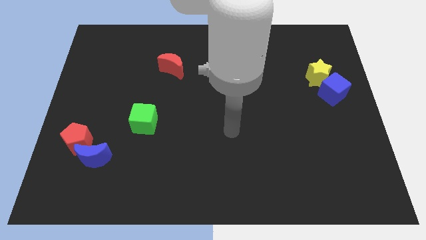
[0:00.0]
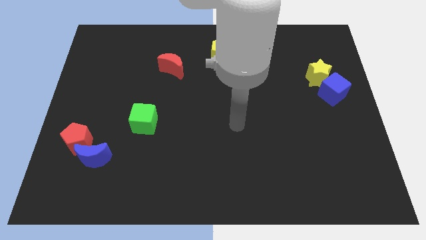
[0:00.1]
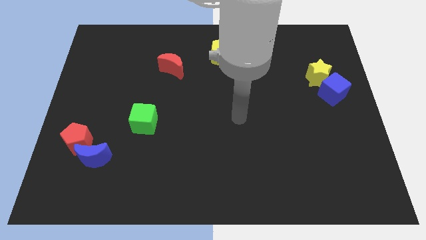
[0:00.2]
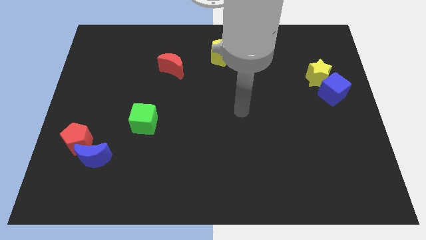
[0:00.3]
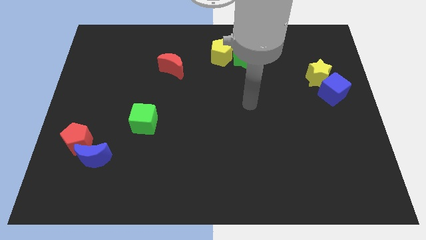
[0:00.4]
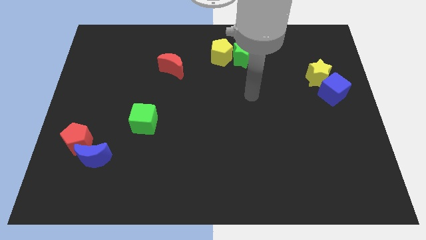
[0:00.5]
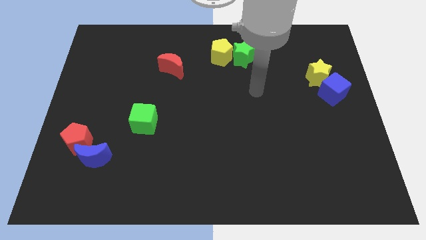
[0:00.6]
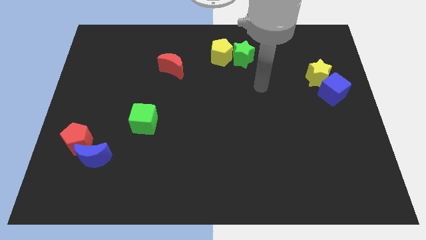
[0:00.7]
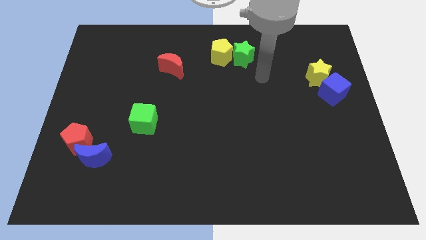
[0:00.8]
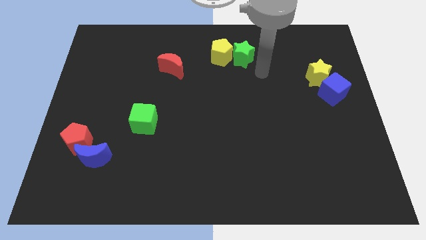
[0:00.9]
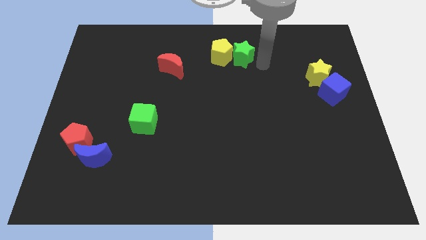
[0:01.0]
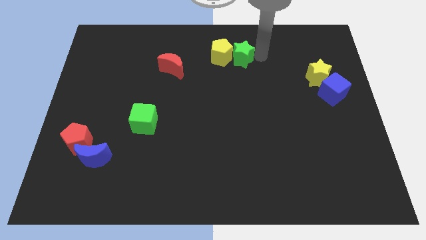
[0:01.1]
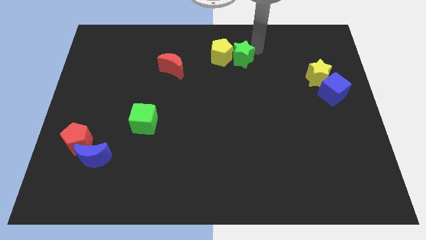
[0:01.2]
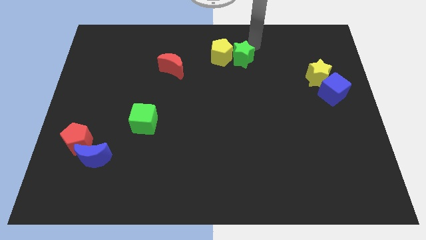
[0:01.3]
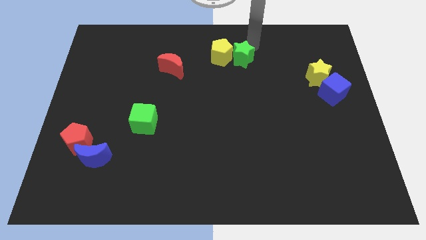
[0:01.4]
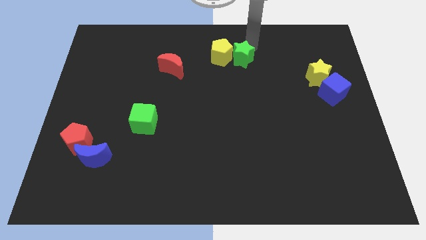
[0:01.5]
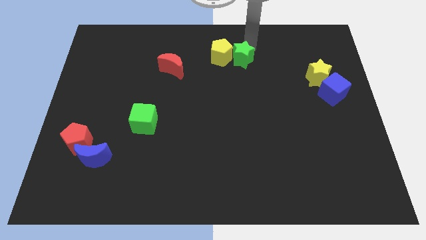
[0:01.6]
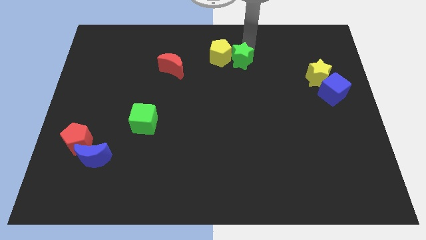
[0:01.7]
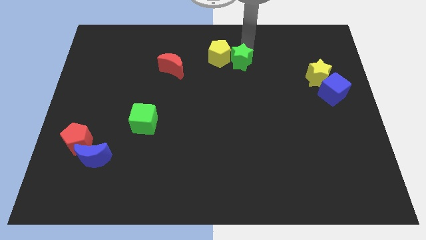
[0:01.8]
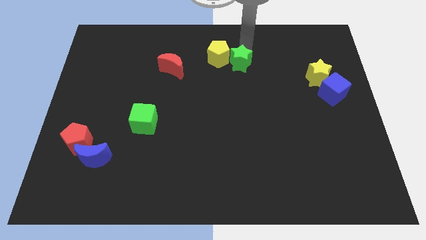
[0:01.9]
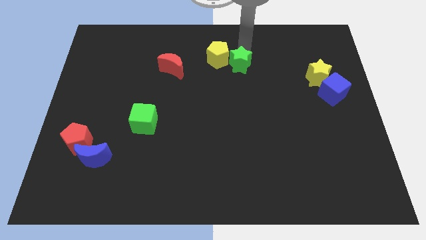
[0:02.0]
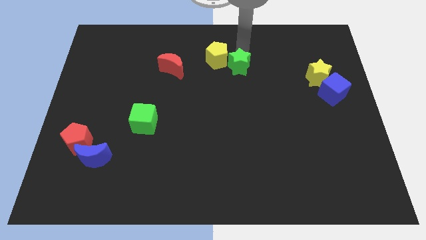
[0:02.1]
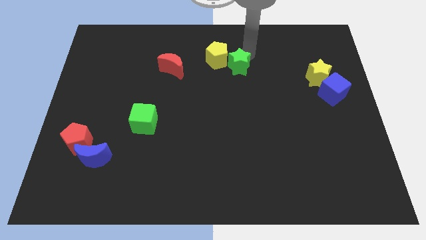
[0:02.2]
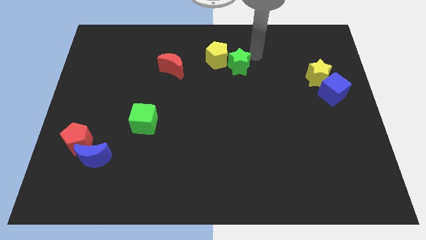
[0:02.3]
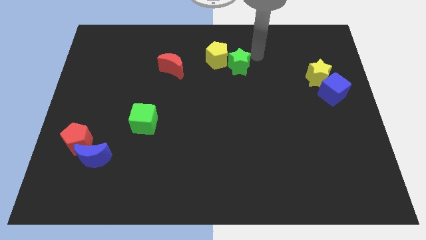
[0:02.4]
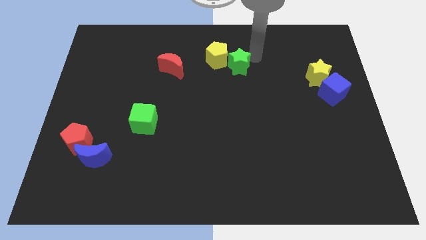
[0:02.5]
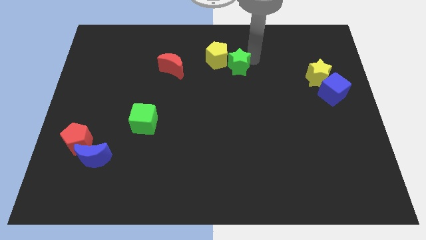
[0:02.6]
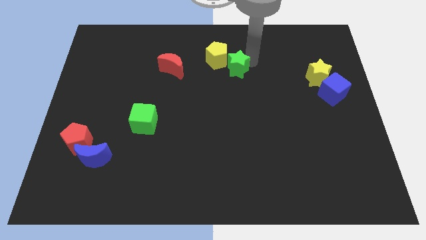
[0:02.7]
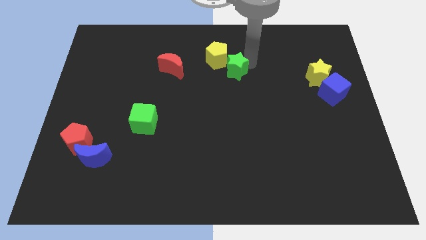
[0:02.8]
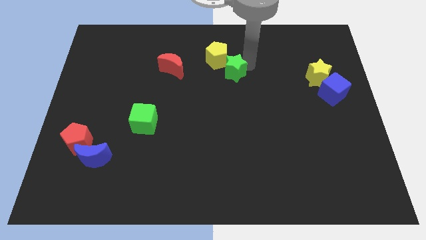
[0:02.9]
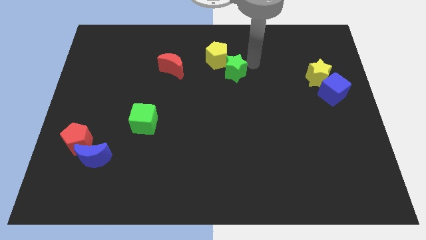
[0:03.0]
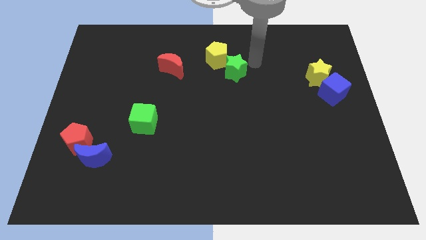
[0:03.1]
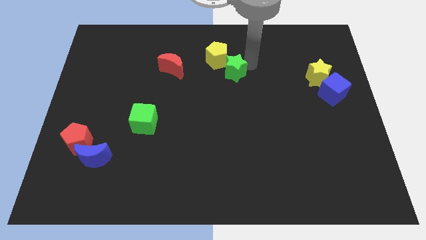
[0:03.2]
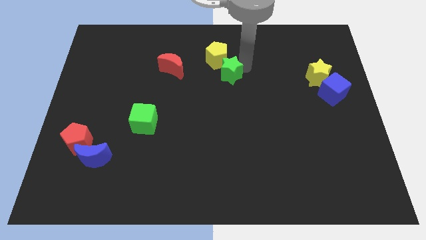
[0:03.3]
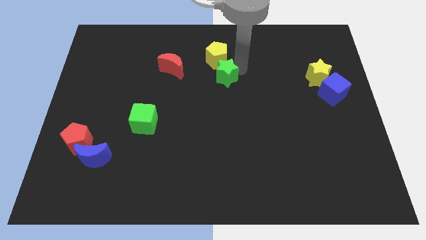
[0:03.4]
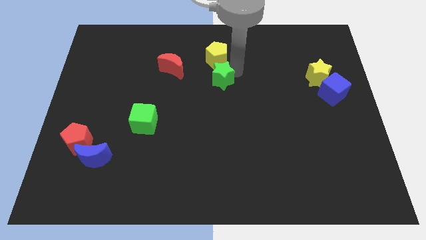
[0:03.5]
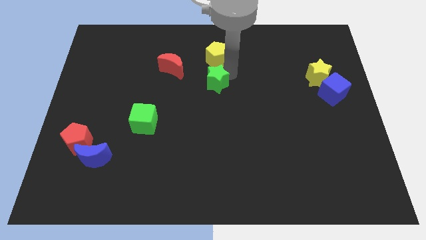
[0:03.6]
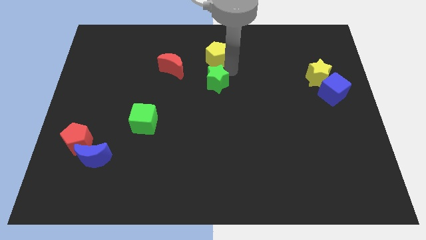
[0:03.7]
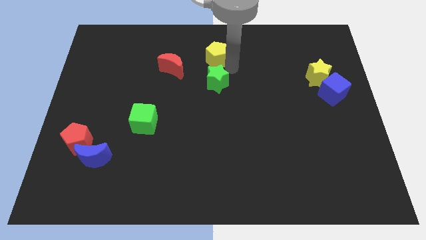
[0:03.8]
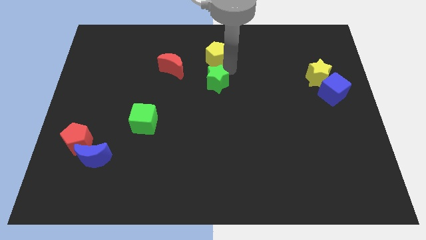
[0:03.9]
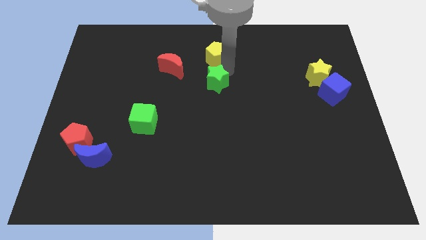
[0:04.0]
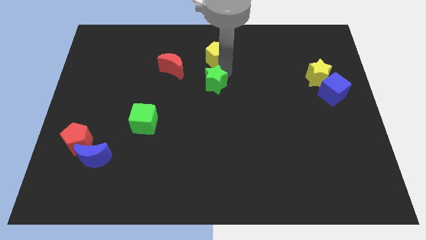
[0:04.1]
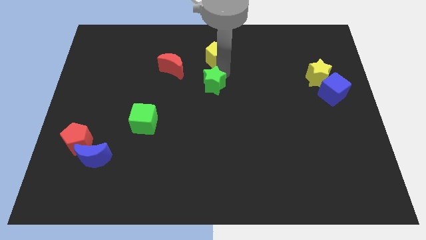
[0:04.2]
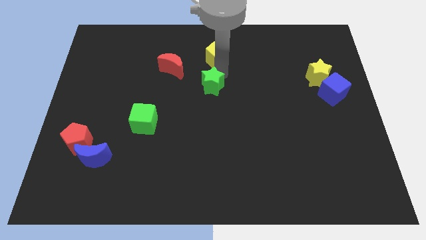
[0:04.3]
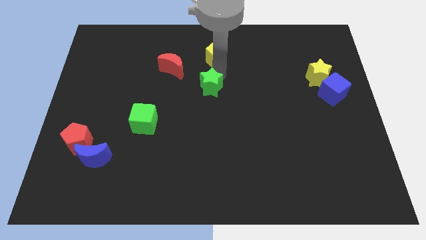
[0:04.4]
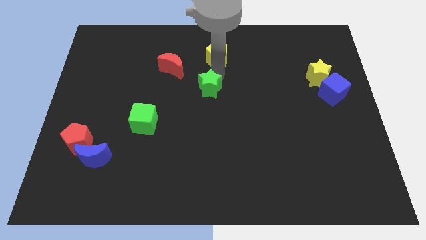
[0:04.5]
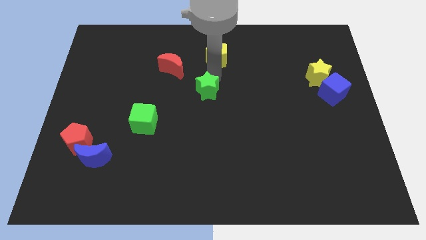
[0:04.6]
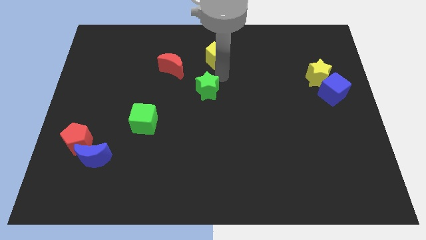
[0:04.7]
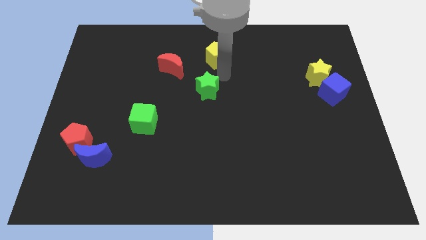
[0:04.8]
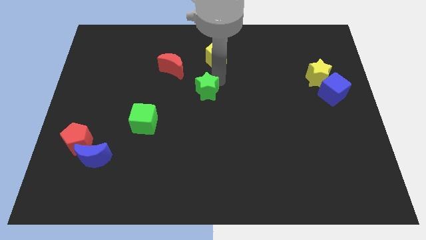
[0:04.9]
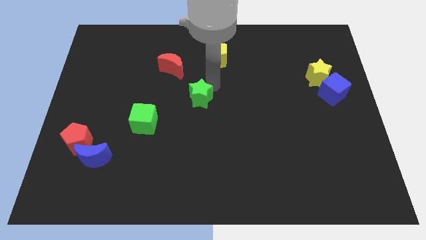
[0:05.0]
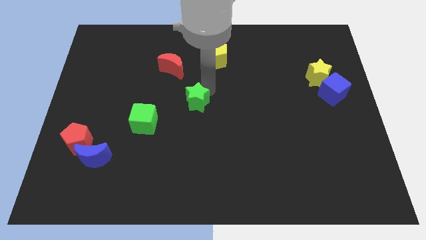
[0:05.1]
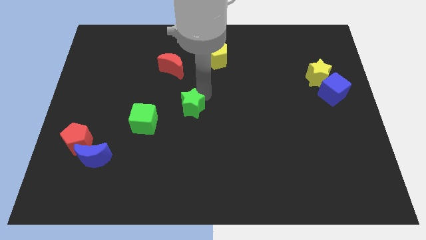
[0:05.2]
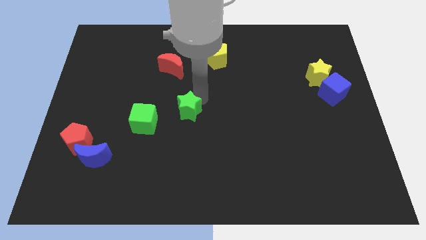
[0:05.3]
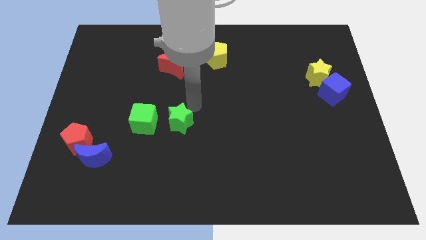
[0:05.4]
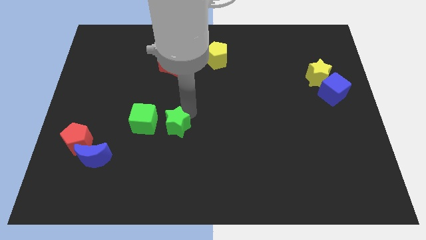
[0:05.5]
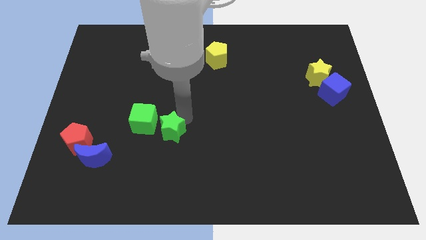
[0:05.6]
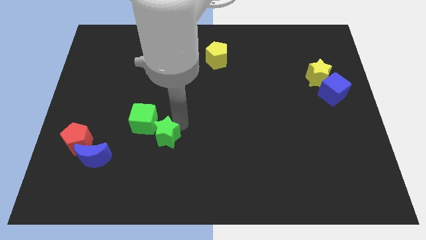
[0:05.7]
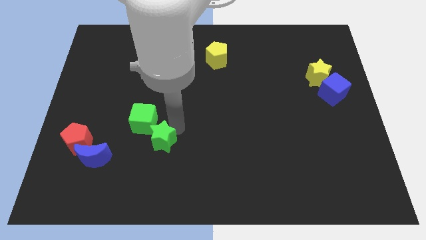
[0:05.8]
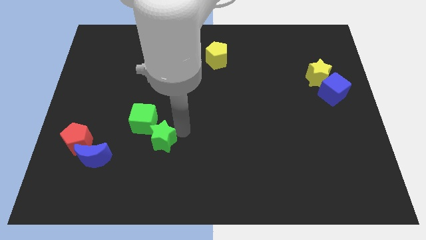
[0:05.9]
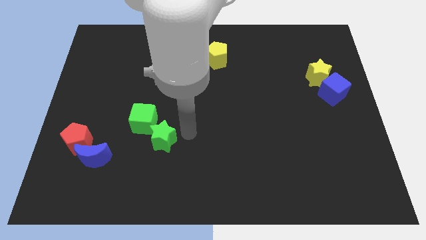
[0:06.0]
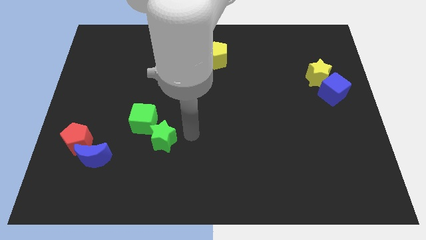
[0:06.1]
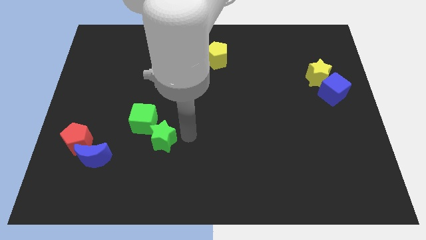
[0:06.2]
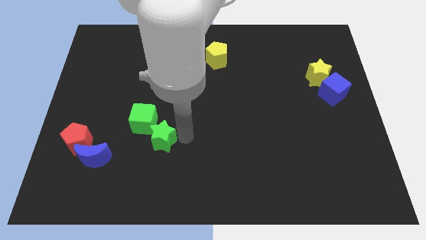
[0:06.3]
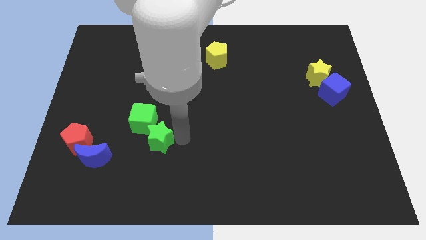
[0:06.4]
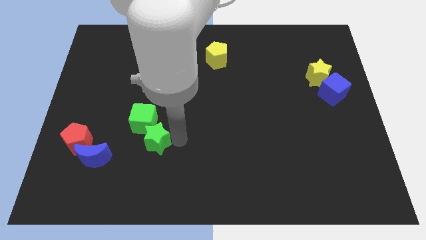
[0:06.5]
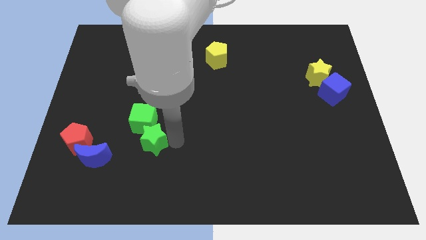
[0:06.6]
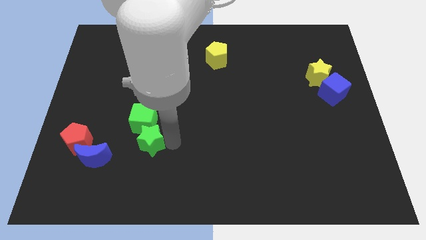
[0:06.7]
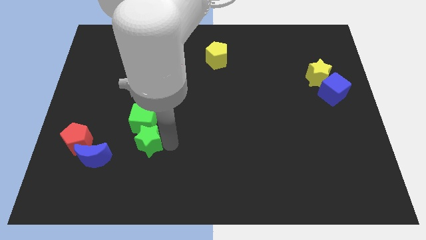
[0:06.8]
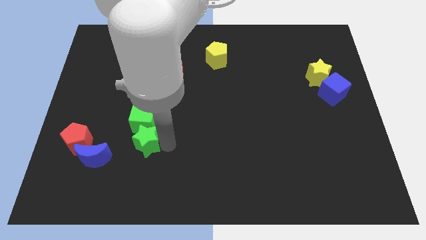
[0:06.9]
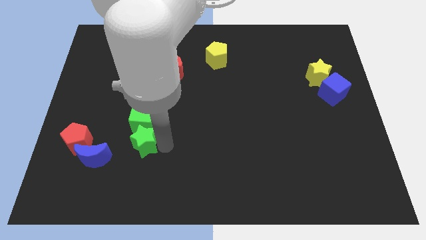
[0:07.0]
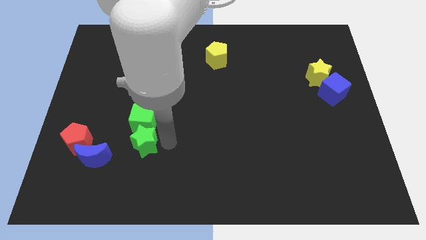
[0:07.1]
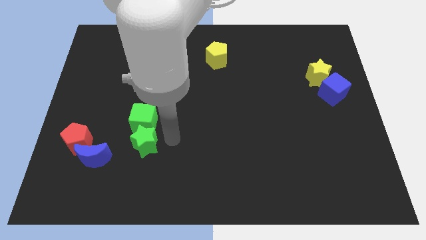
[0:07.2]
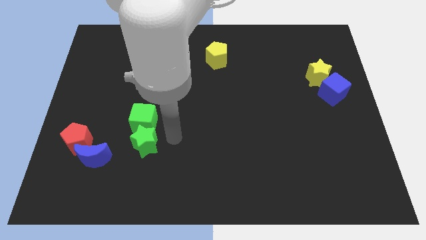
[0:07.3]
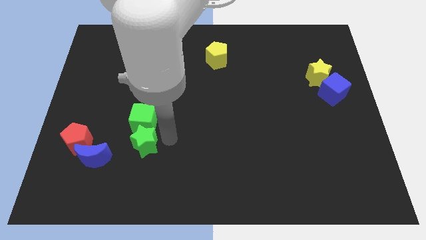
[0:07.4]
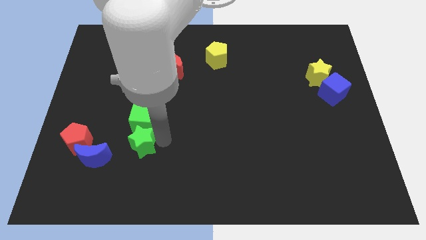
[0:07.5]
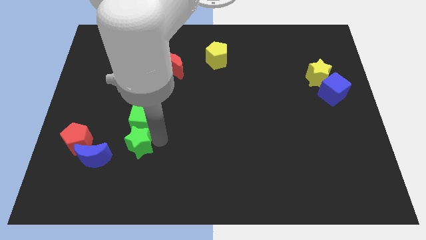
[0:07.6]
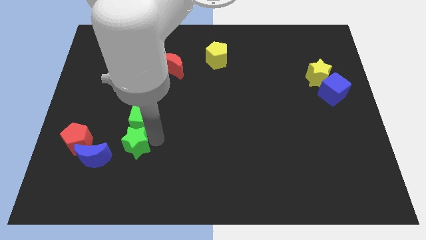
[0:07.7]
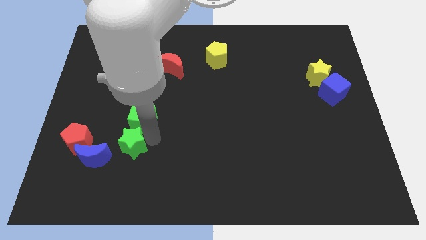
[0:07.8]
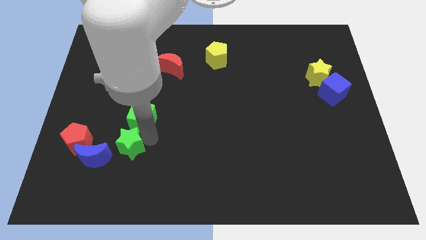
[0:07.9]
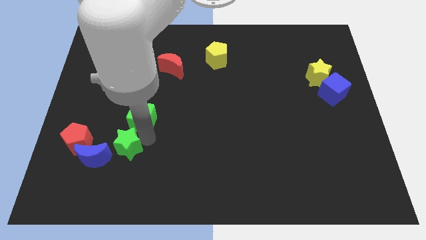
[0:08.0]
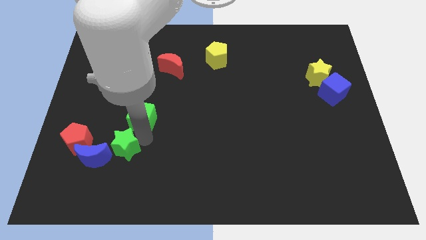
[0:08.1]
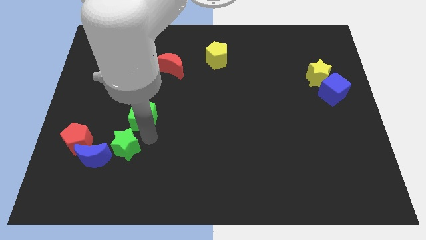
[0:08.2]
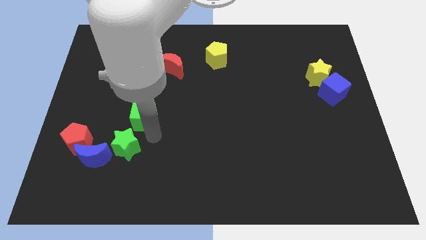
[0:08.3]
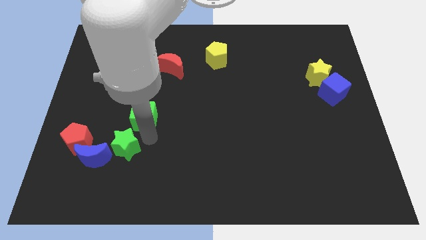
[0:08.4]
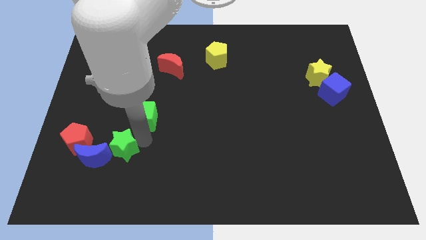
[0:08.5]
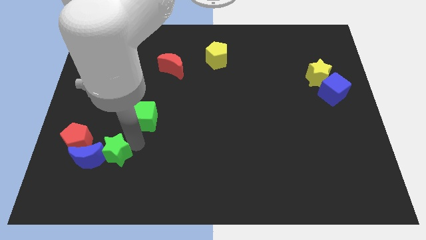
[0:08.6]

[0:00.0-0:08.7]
push the green star towards the blue moon
